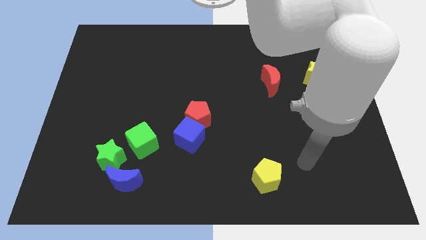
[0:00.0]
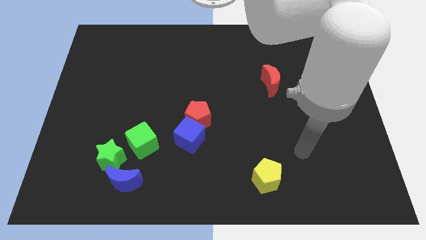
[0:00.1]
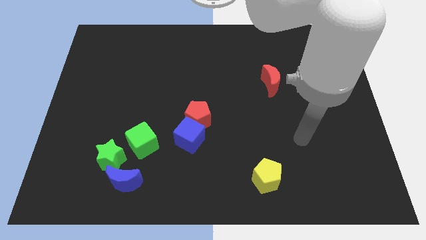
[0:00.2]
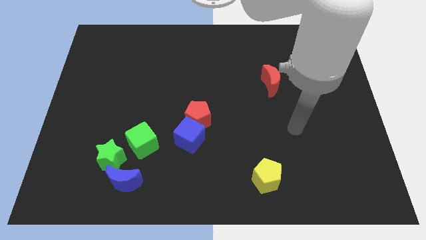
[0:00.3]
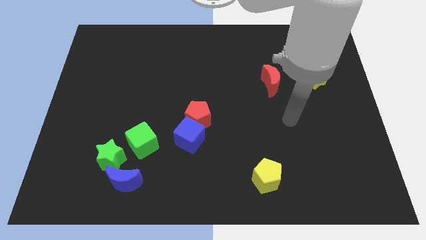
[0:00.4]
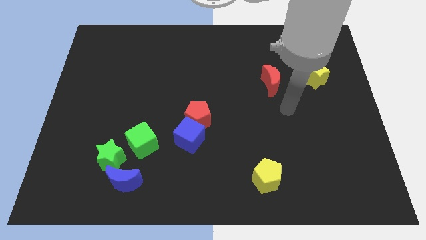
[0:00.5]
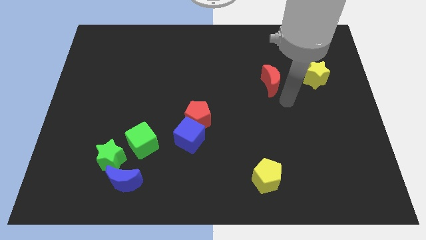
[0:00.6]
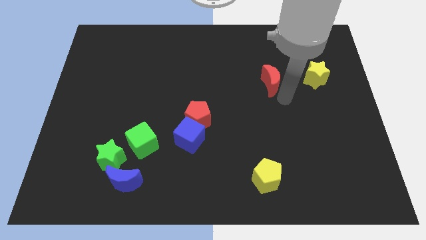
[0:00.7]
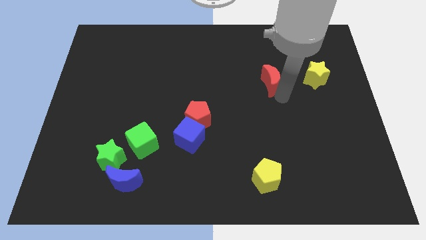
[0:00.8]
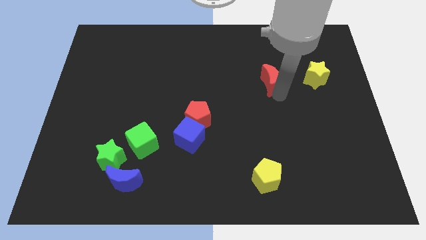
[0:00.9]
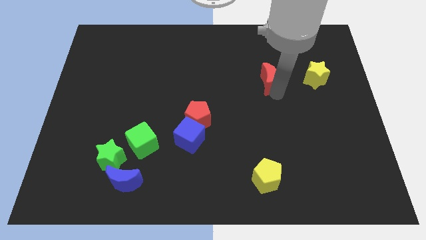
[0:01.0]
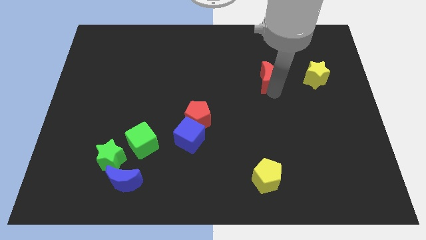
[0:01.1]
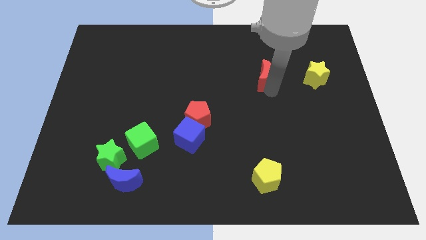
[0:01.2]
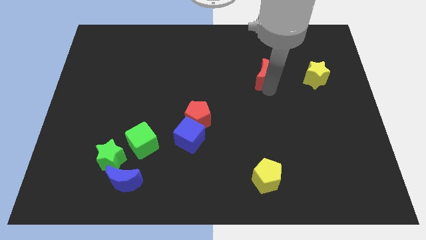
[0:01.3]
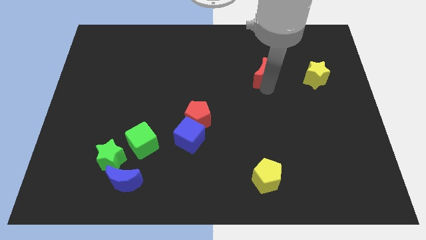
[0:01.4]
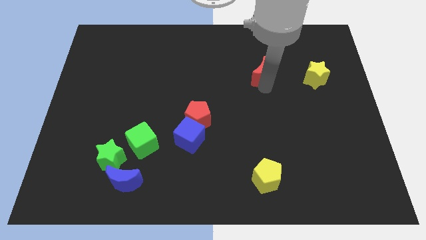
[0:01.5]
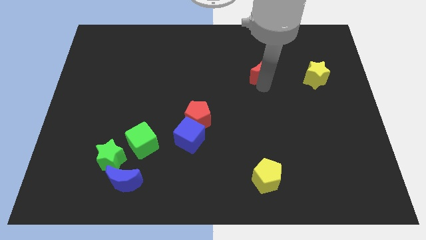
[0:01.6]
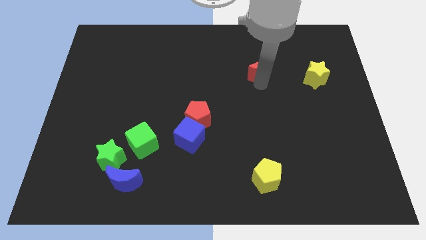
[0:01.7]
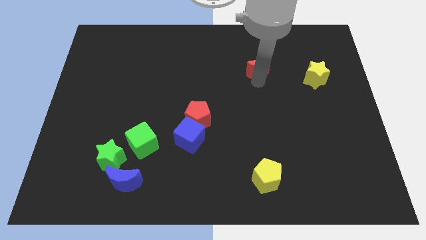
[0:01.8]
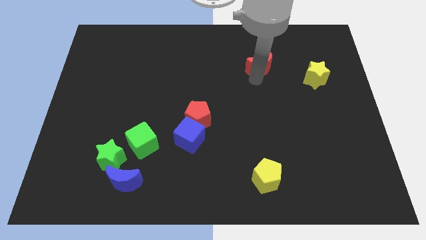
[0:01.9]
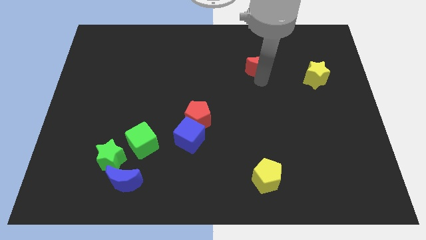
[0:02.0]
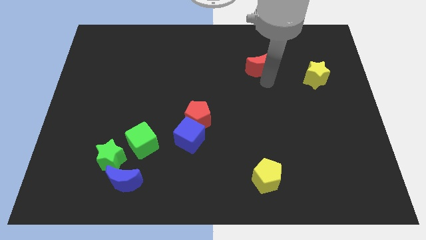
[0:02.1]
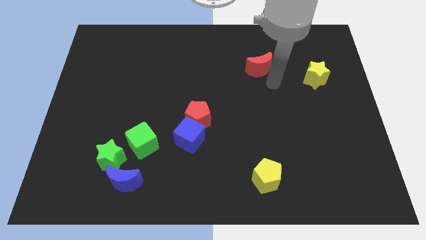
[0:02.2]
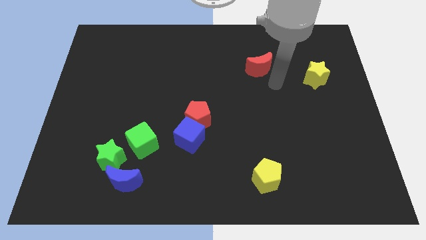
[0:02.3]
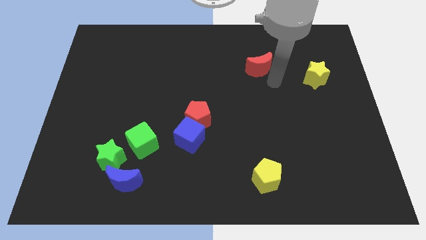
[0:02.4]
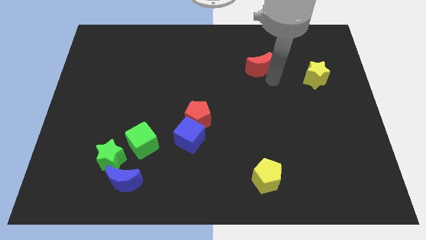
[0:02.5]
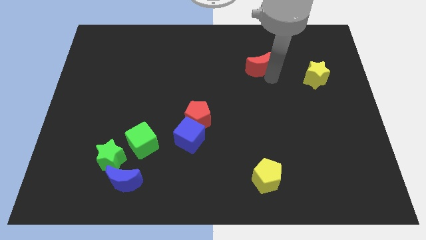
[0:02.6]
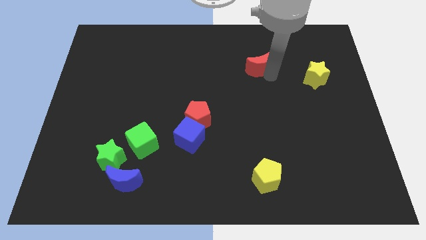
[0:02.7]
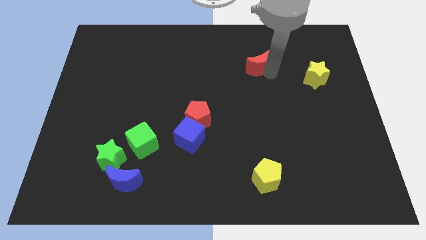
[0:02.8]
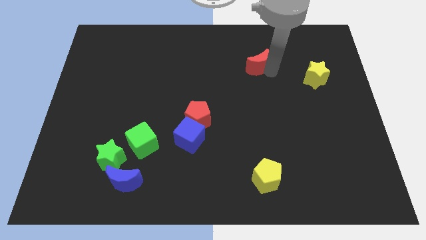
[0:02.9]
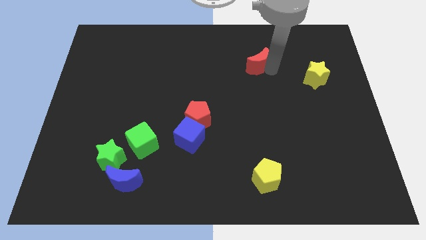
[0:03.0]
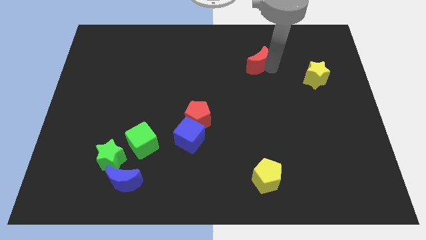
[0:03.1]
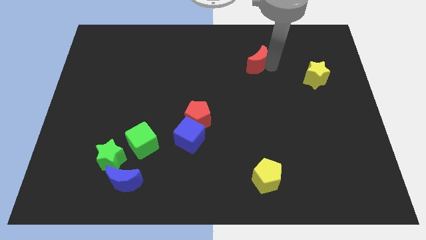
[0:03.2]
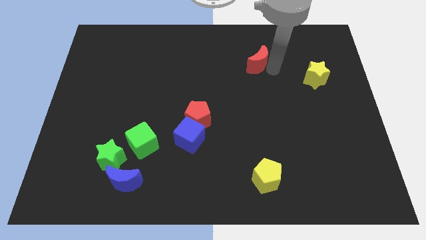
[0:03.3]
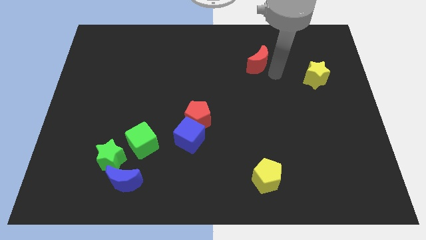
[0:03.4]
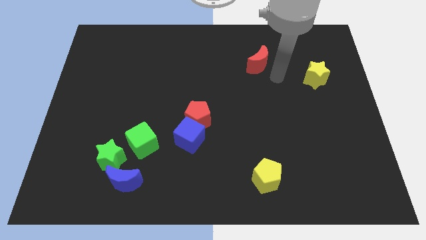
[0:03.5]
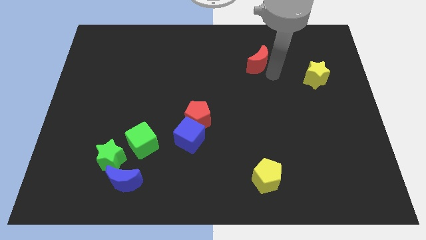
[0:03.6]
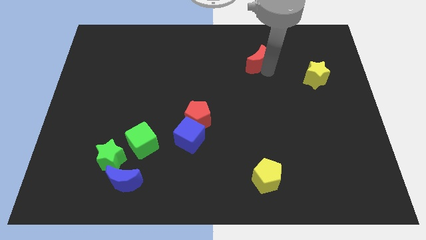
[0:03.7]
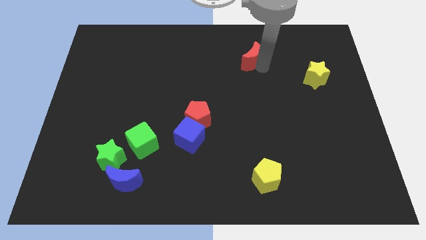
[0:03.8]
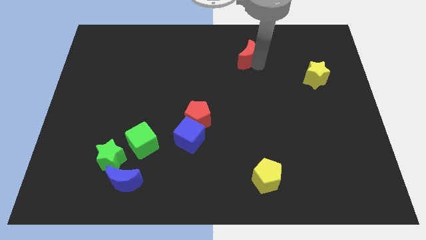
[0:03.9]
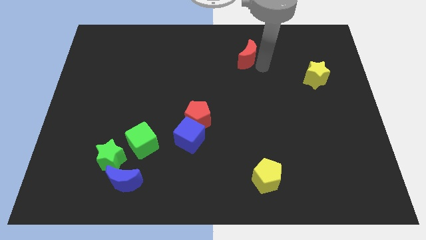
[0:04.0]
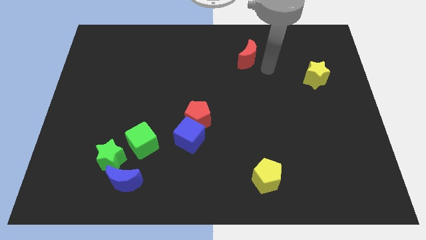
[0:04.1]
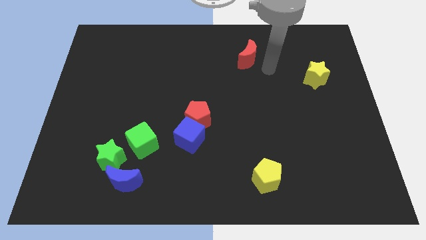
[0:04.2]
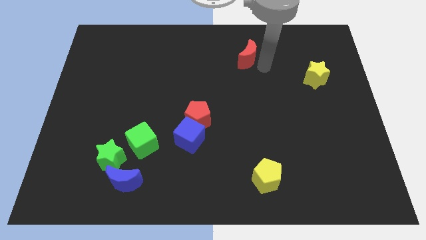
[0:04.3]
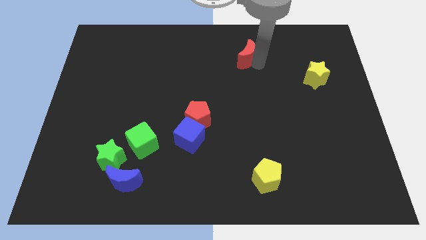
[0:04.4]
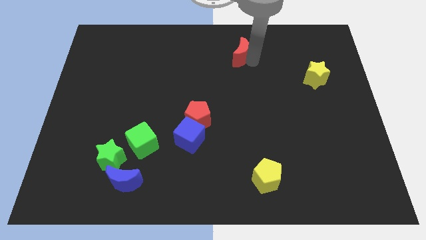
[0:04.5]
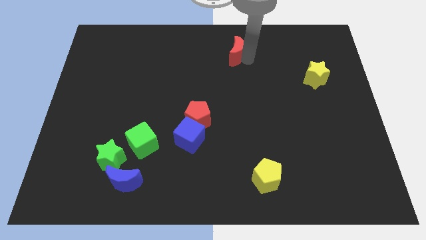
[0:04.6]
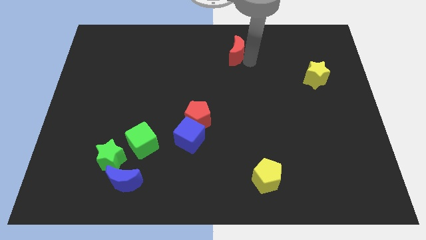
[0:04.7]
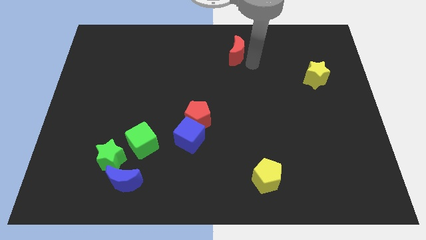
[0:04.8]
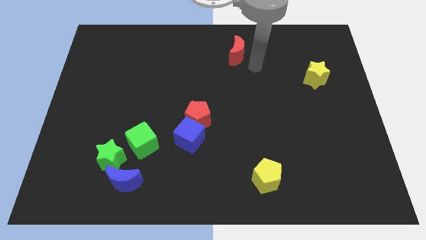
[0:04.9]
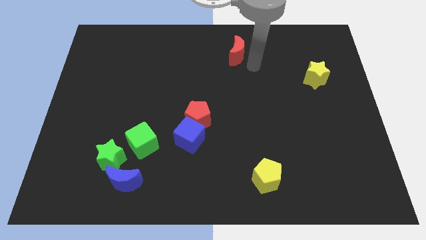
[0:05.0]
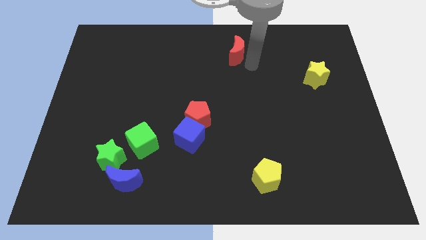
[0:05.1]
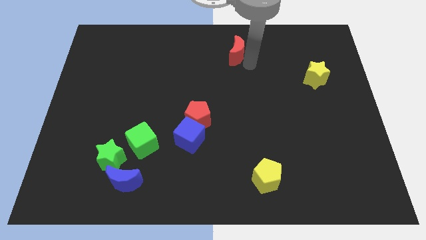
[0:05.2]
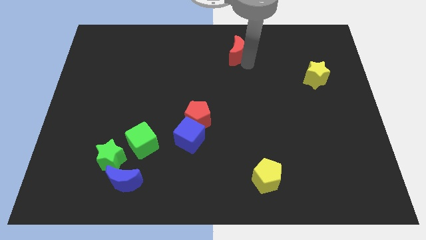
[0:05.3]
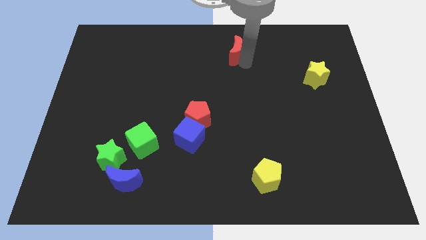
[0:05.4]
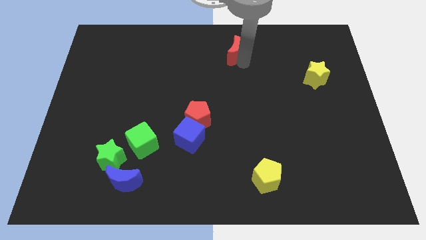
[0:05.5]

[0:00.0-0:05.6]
move the red moon to the top side

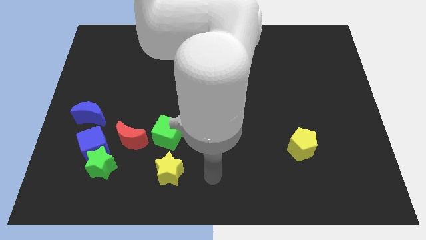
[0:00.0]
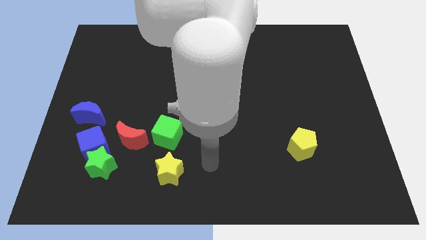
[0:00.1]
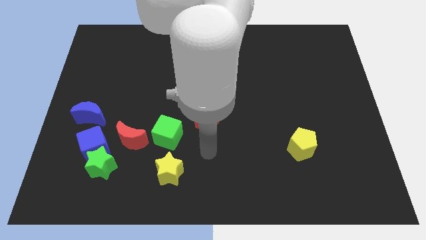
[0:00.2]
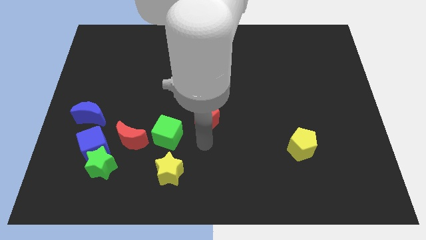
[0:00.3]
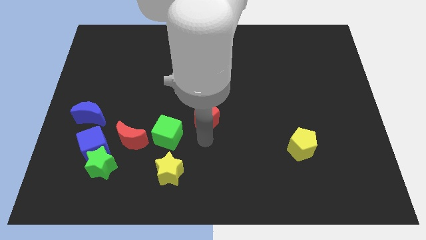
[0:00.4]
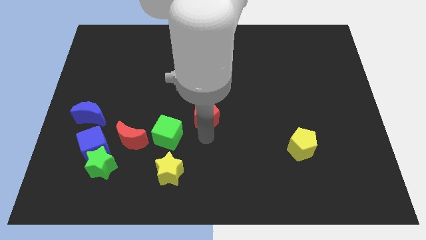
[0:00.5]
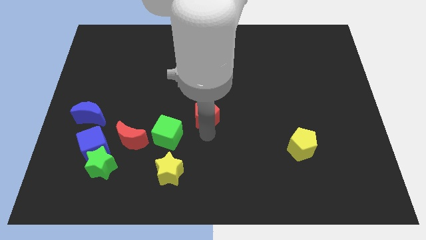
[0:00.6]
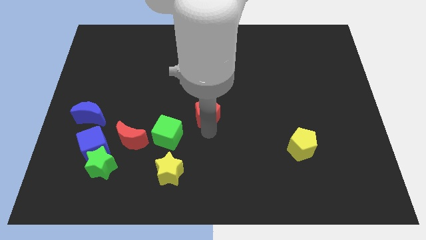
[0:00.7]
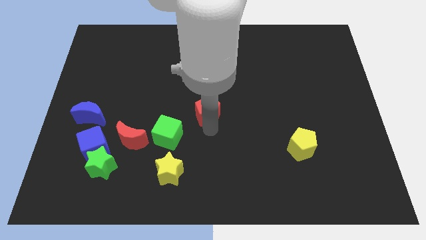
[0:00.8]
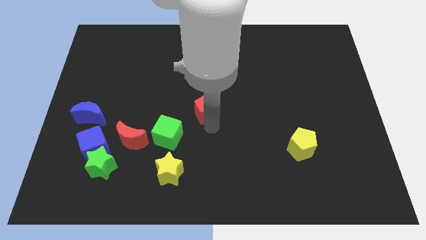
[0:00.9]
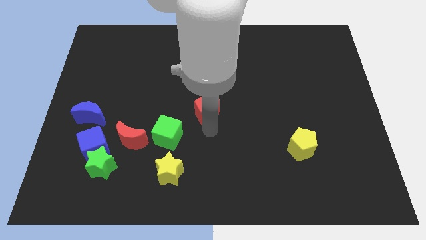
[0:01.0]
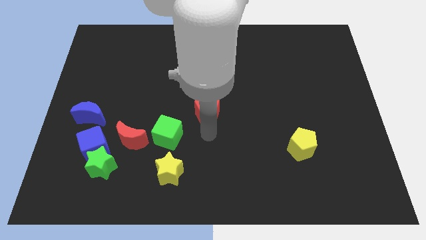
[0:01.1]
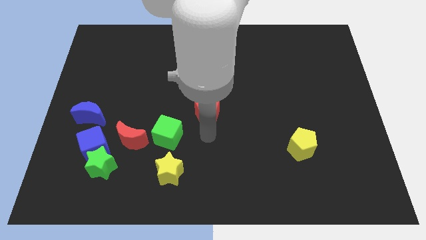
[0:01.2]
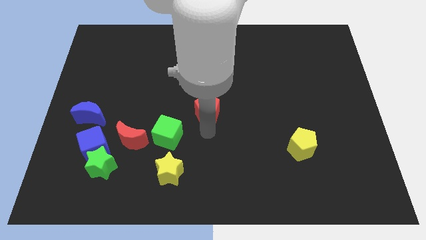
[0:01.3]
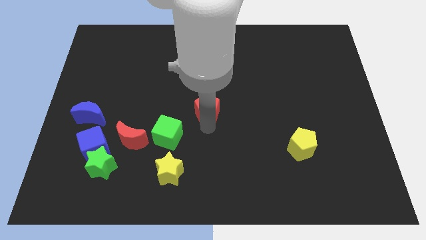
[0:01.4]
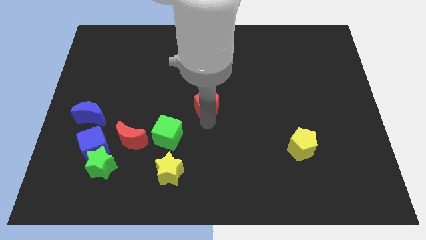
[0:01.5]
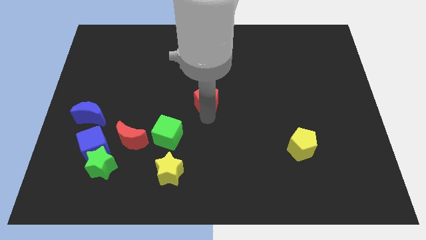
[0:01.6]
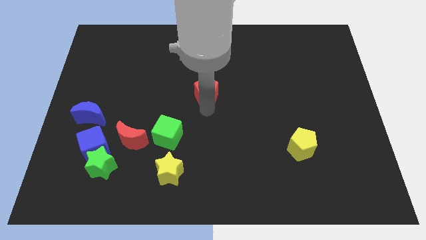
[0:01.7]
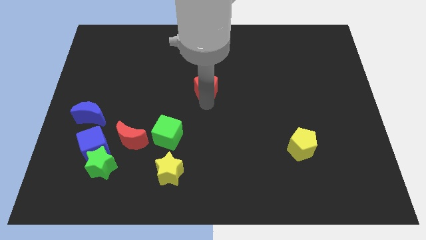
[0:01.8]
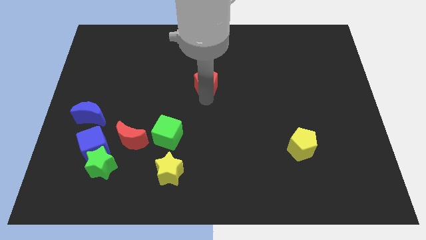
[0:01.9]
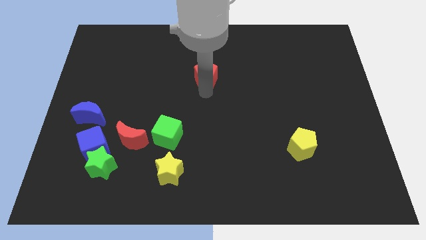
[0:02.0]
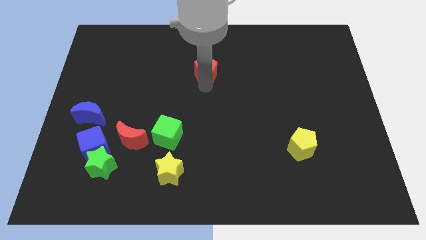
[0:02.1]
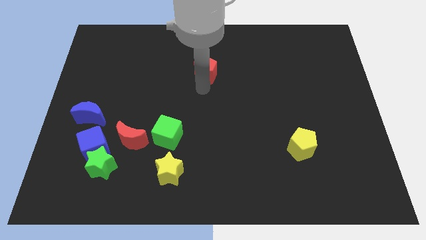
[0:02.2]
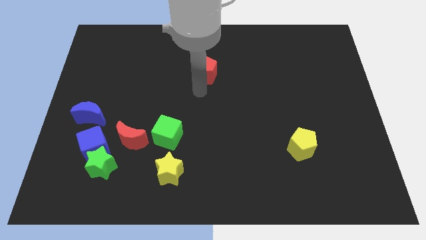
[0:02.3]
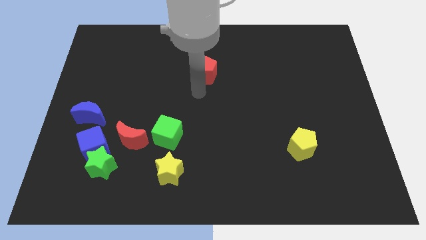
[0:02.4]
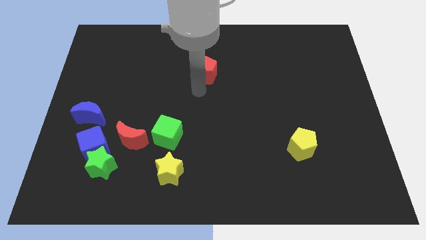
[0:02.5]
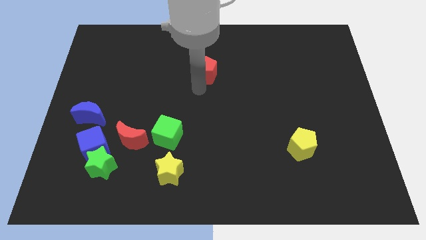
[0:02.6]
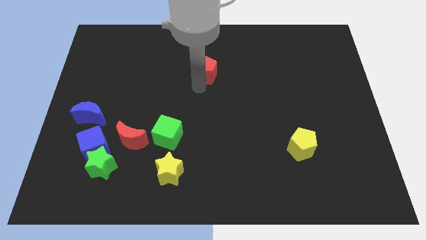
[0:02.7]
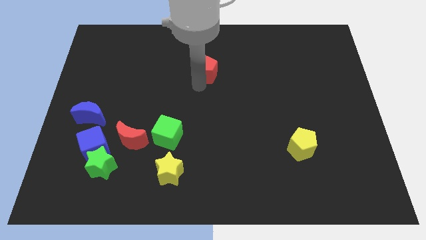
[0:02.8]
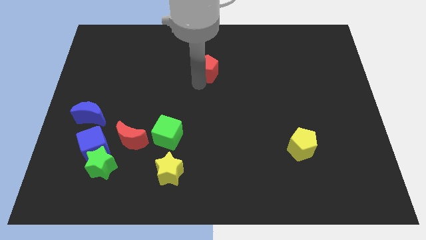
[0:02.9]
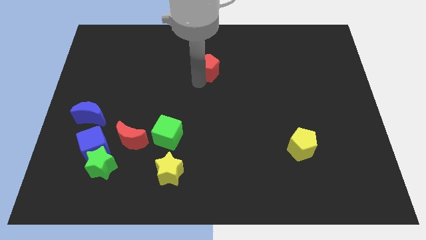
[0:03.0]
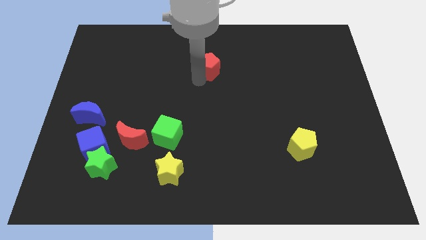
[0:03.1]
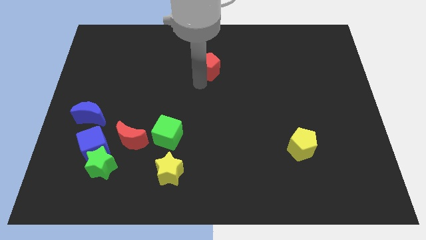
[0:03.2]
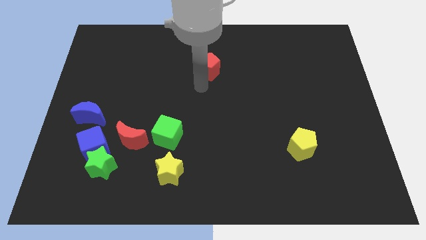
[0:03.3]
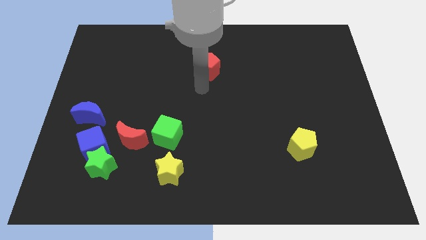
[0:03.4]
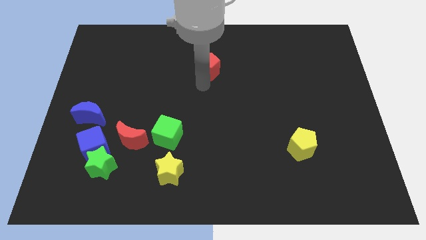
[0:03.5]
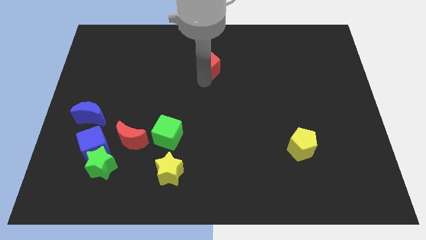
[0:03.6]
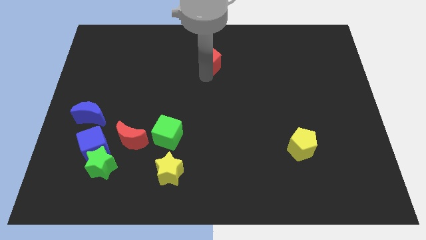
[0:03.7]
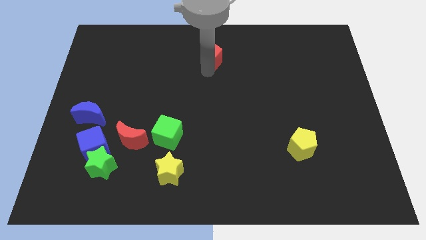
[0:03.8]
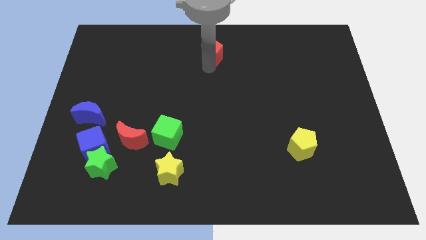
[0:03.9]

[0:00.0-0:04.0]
slide the red pentagon to the top side
